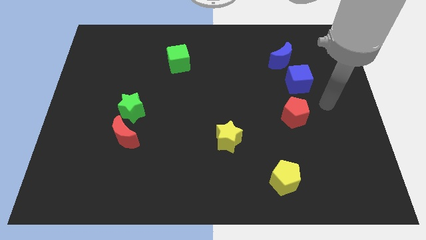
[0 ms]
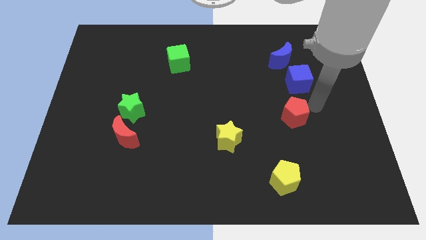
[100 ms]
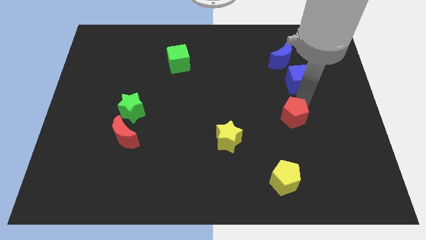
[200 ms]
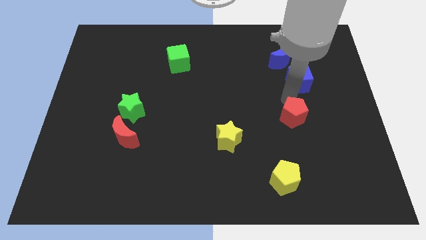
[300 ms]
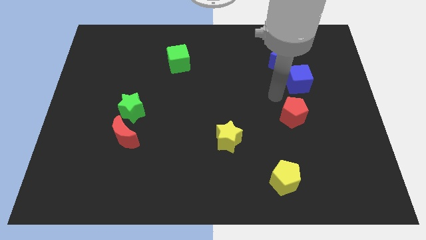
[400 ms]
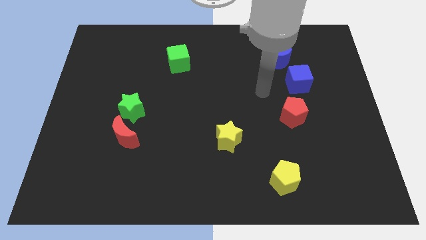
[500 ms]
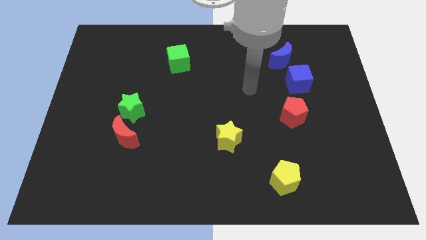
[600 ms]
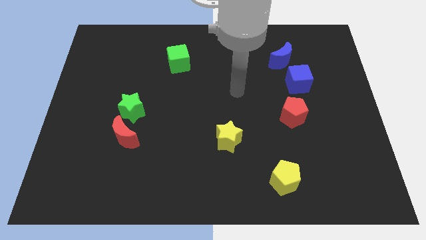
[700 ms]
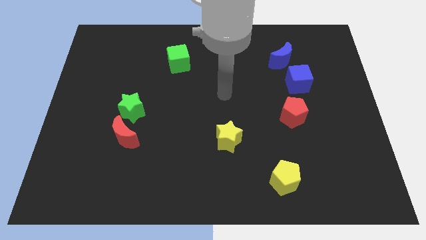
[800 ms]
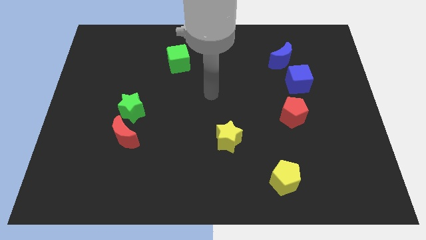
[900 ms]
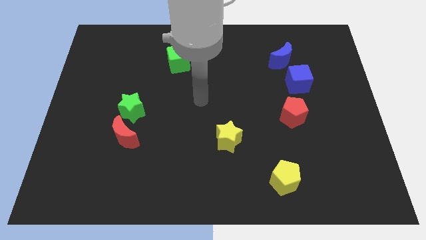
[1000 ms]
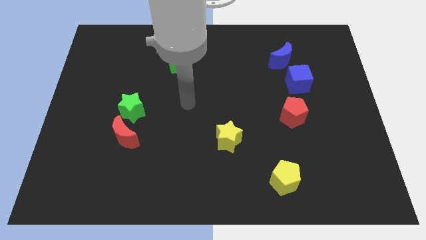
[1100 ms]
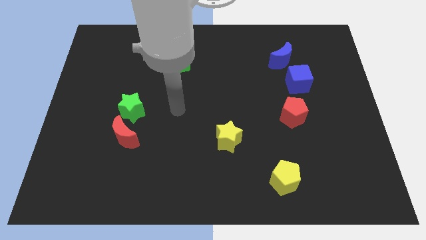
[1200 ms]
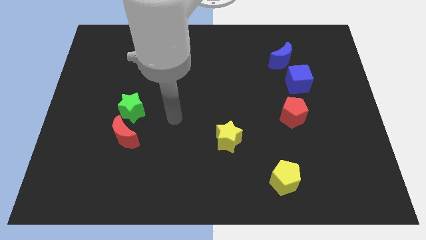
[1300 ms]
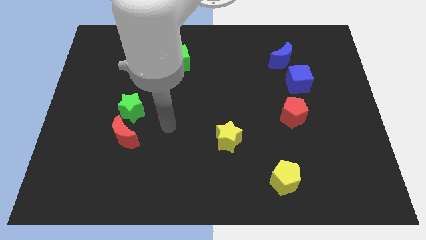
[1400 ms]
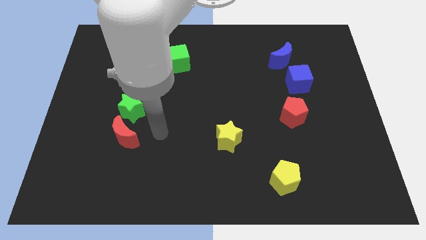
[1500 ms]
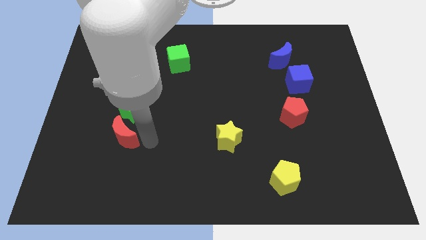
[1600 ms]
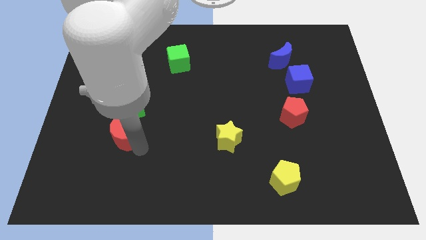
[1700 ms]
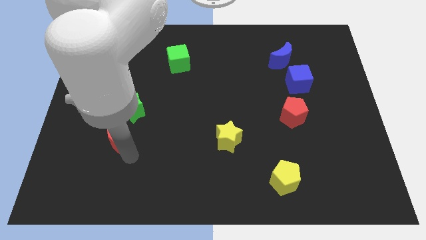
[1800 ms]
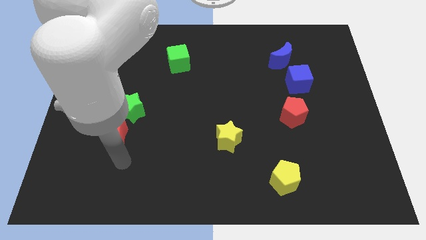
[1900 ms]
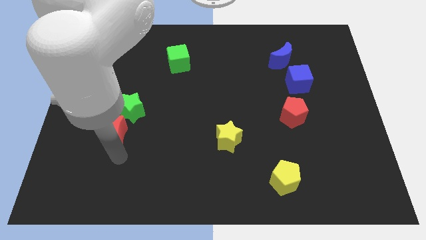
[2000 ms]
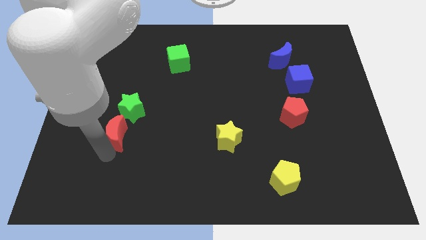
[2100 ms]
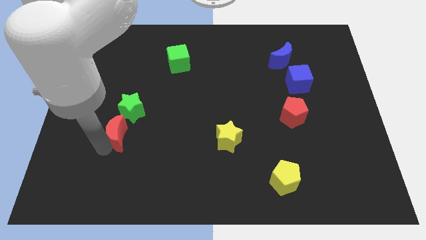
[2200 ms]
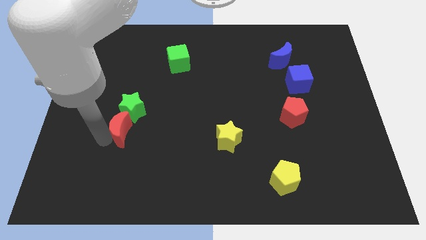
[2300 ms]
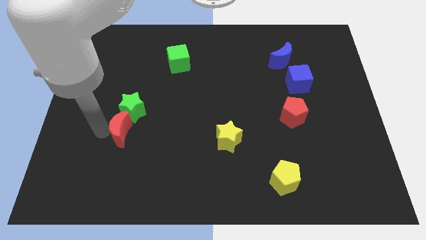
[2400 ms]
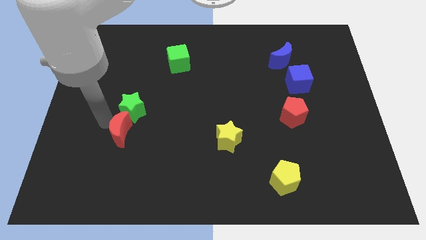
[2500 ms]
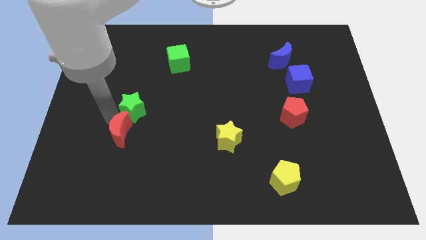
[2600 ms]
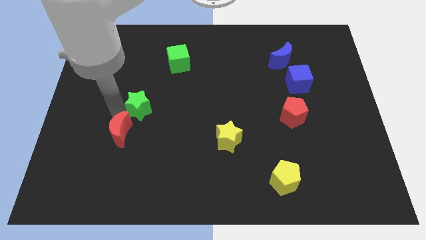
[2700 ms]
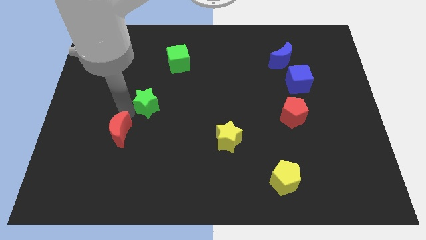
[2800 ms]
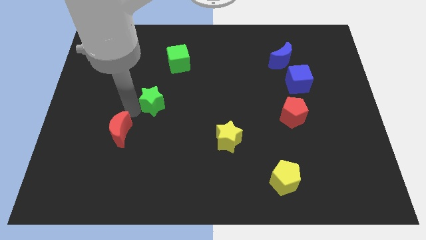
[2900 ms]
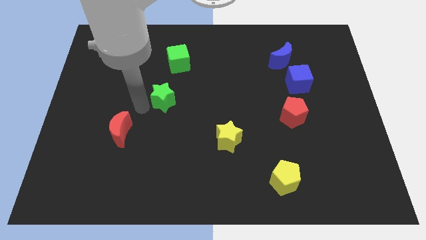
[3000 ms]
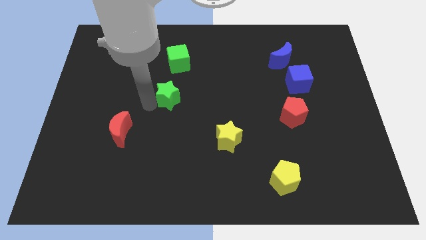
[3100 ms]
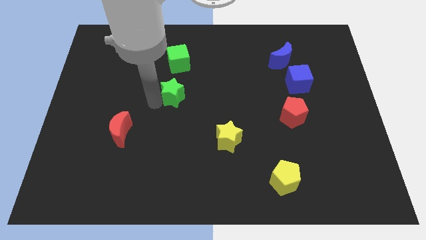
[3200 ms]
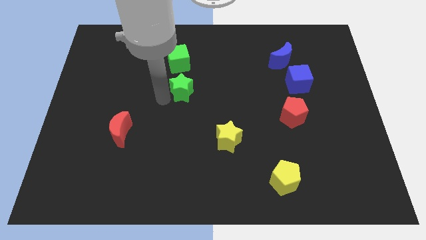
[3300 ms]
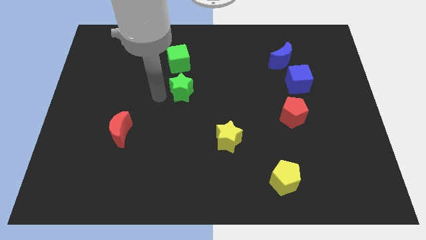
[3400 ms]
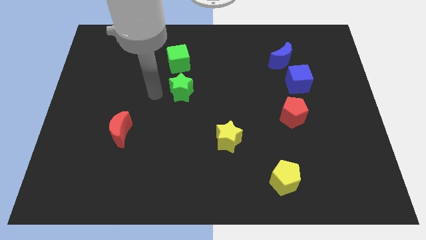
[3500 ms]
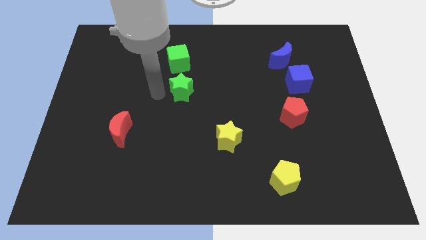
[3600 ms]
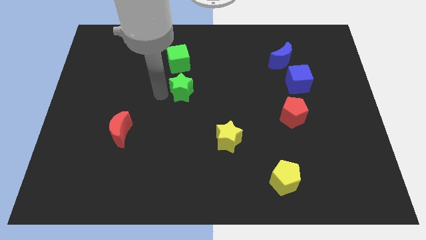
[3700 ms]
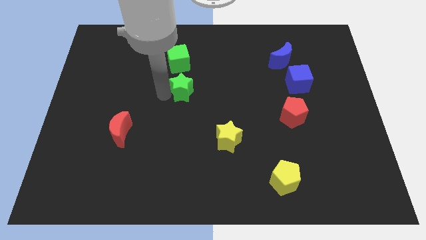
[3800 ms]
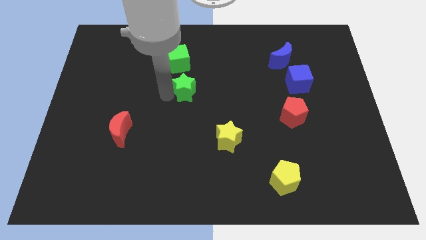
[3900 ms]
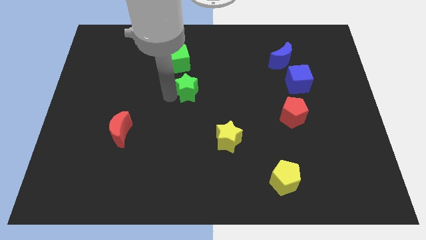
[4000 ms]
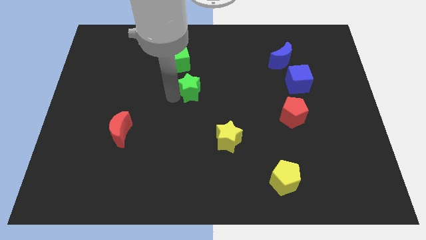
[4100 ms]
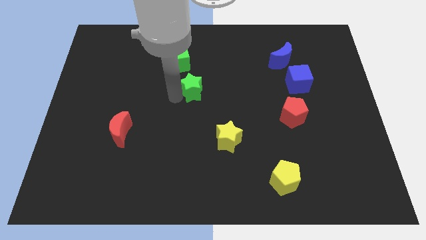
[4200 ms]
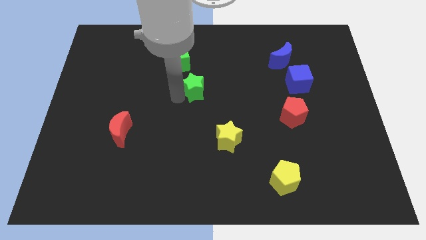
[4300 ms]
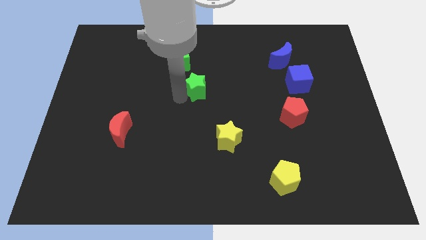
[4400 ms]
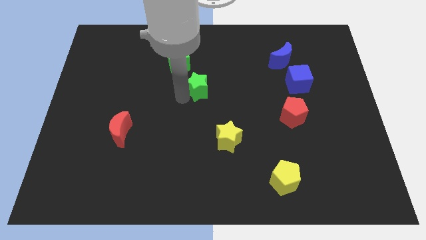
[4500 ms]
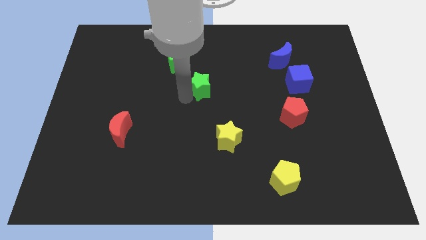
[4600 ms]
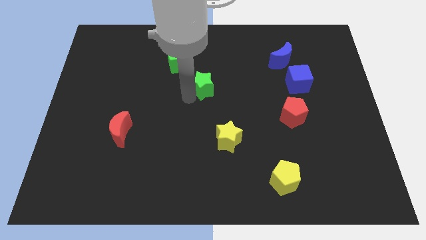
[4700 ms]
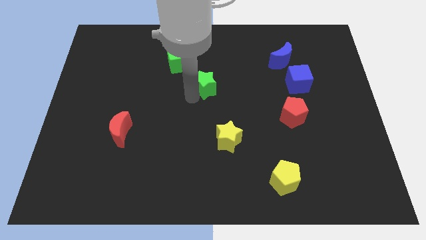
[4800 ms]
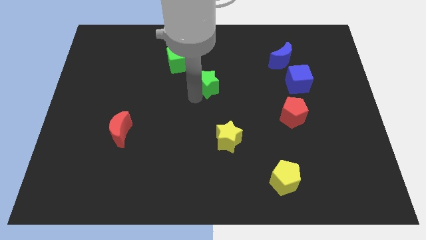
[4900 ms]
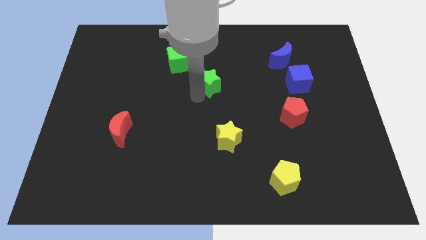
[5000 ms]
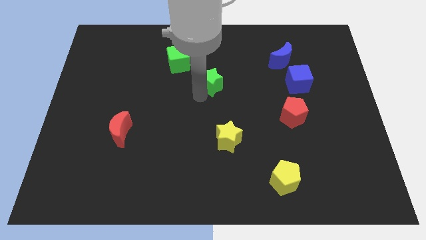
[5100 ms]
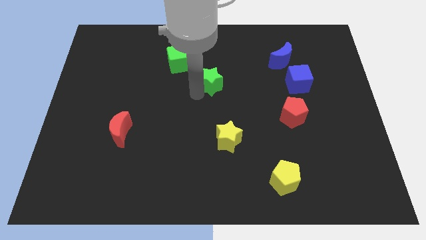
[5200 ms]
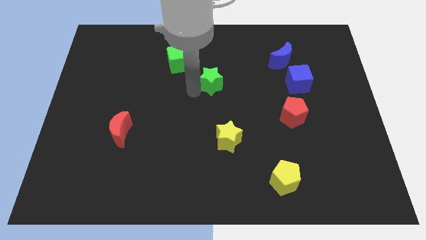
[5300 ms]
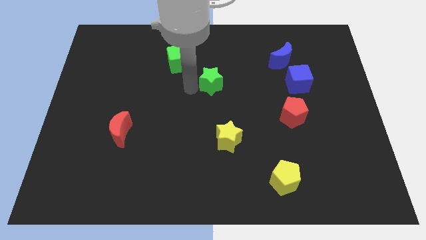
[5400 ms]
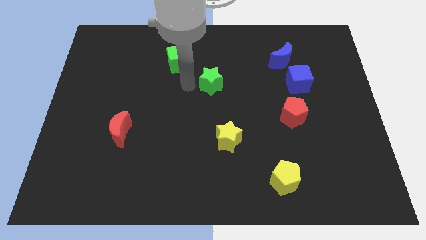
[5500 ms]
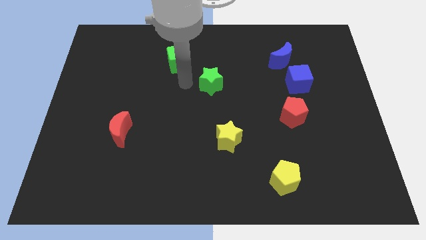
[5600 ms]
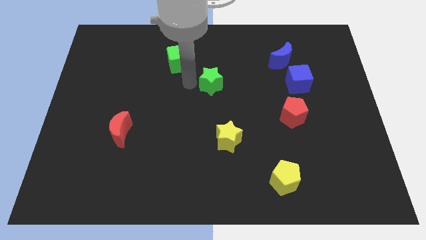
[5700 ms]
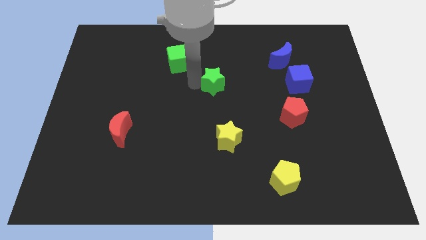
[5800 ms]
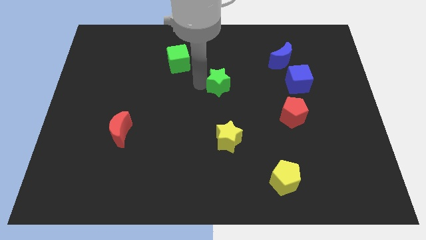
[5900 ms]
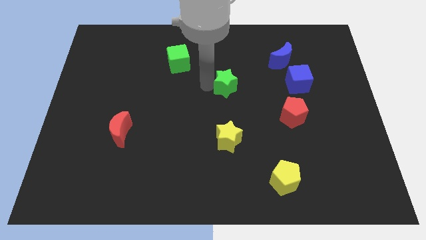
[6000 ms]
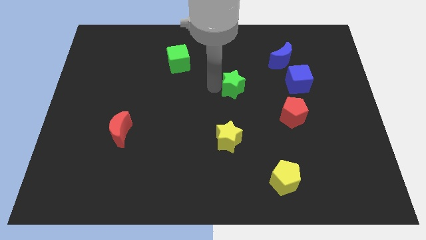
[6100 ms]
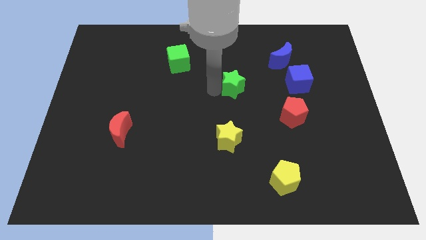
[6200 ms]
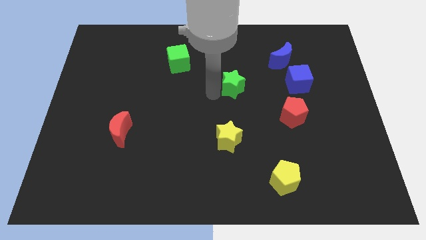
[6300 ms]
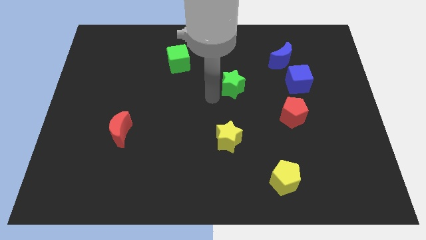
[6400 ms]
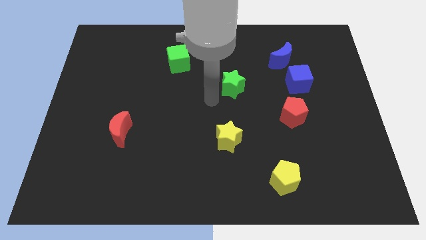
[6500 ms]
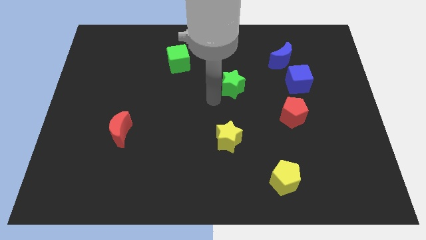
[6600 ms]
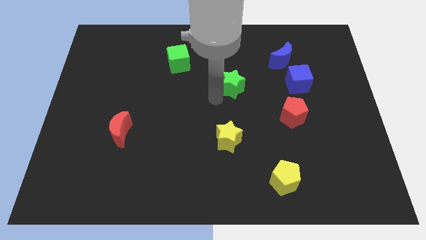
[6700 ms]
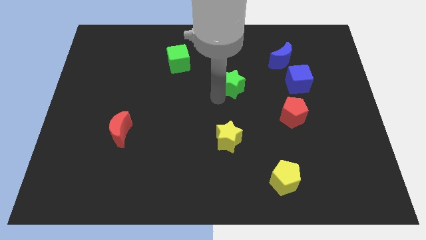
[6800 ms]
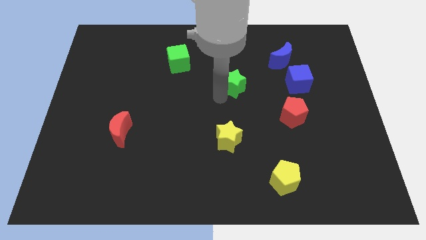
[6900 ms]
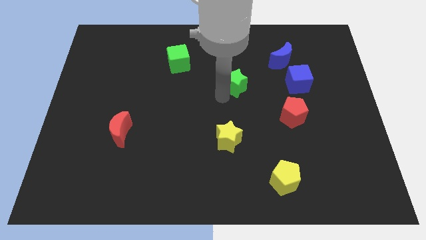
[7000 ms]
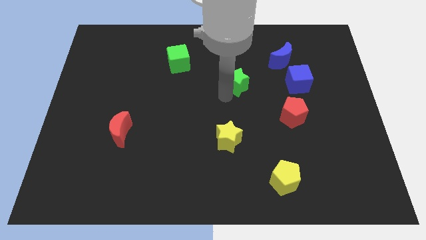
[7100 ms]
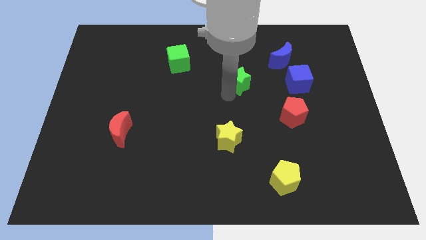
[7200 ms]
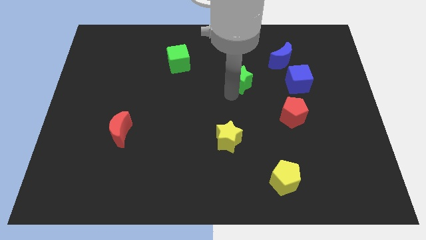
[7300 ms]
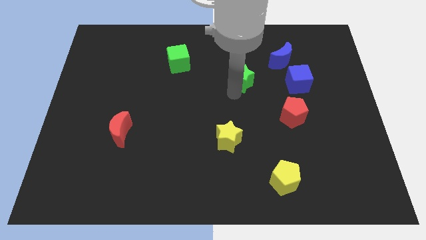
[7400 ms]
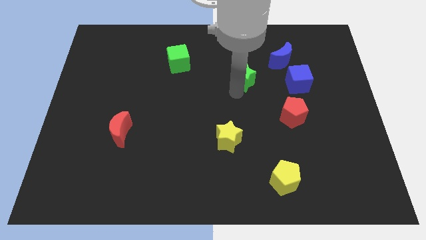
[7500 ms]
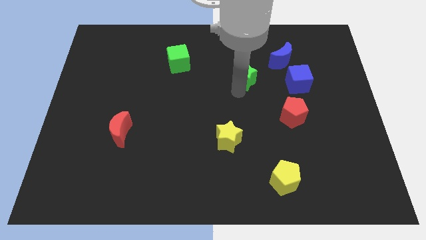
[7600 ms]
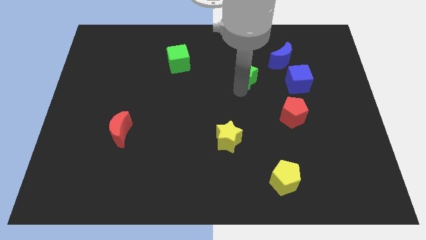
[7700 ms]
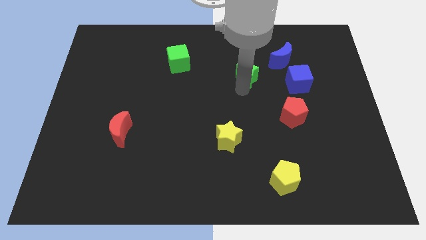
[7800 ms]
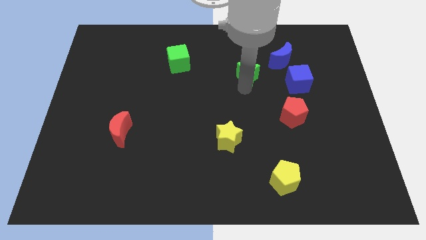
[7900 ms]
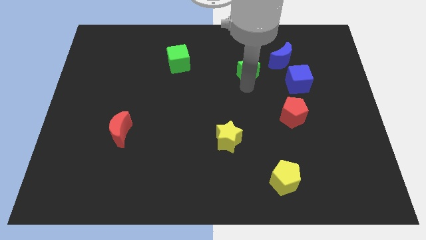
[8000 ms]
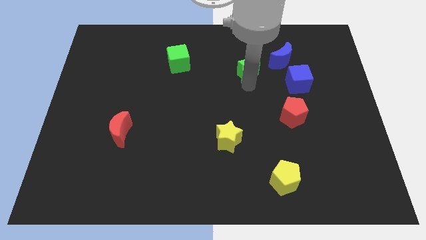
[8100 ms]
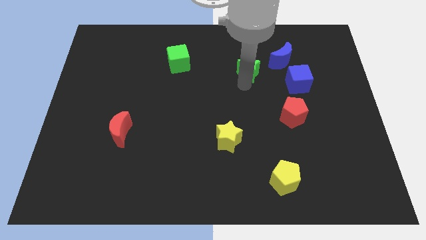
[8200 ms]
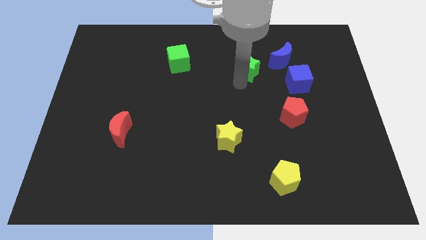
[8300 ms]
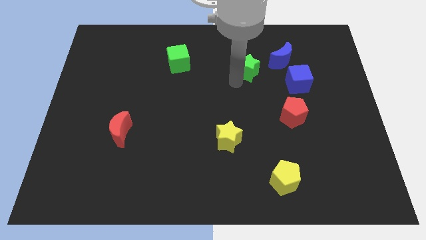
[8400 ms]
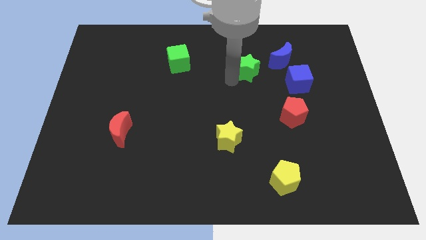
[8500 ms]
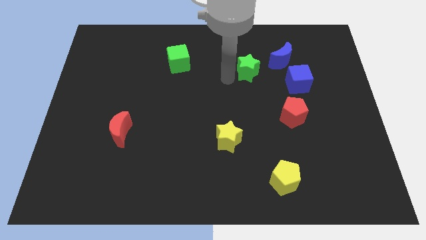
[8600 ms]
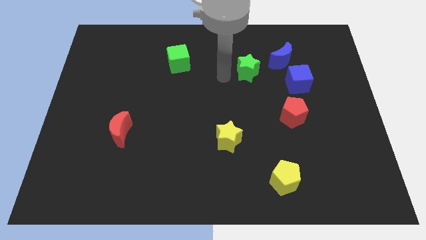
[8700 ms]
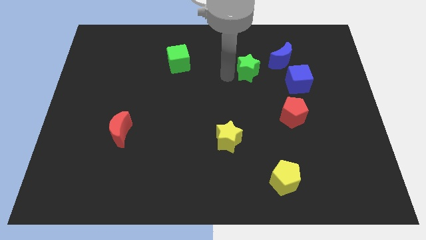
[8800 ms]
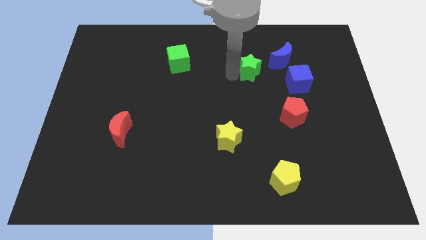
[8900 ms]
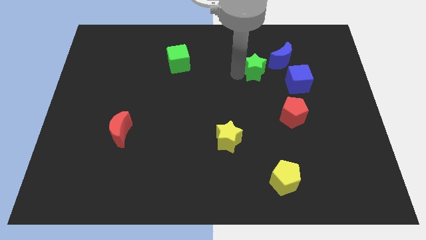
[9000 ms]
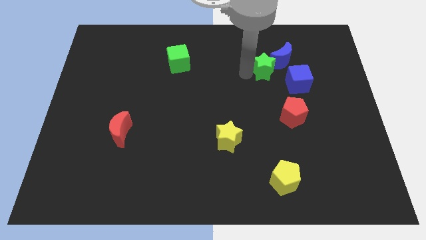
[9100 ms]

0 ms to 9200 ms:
slide the green star to the blue moon
